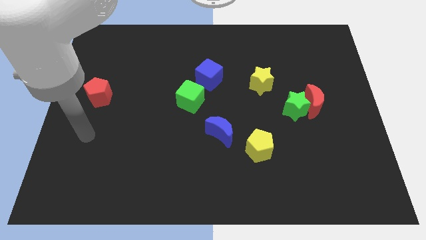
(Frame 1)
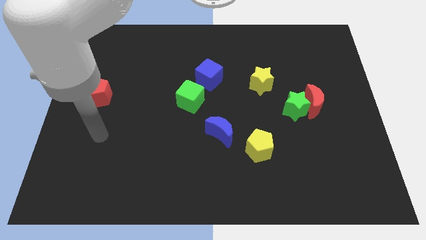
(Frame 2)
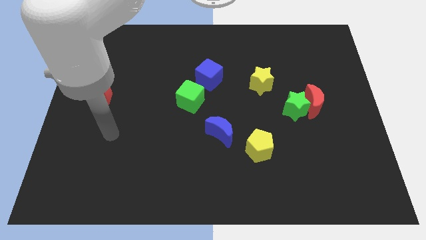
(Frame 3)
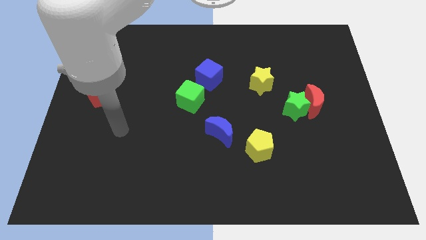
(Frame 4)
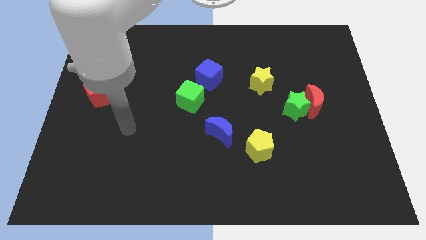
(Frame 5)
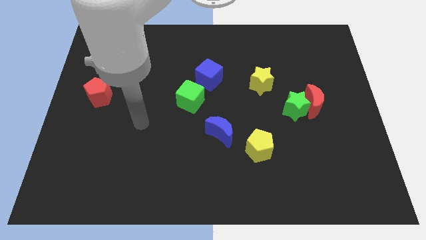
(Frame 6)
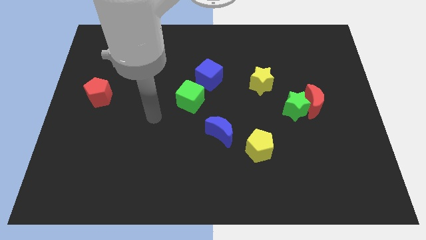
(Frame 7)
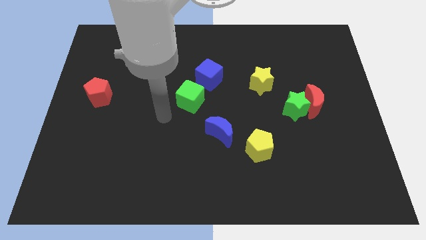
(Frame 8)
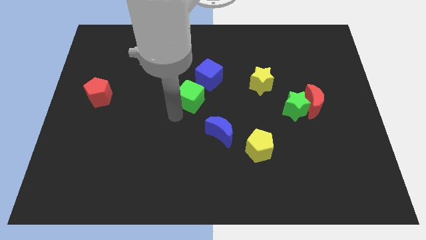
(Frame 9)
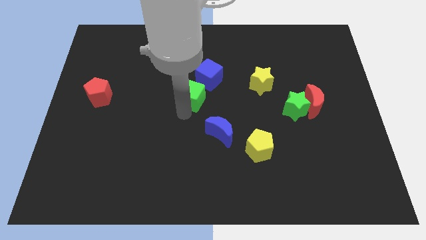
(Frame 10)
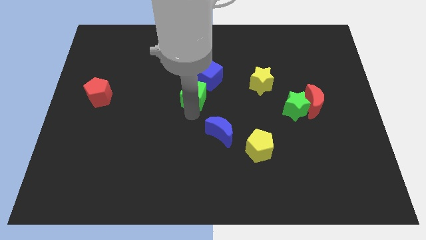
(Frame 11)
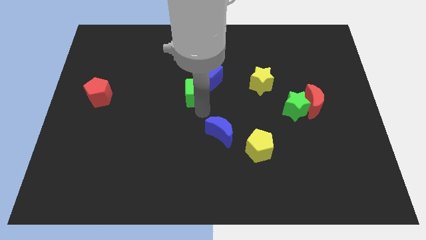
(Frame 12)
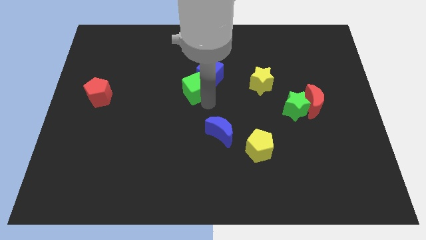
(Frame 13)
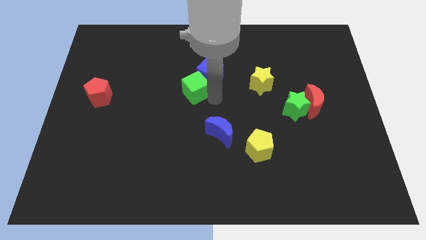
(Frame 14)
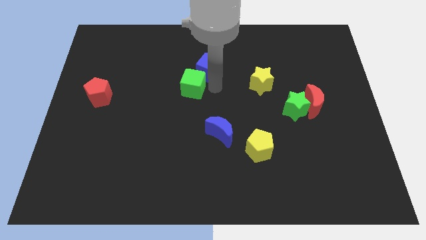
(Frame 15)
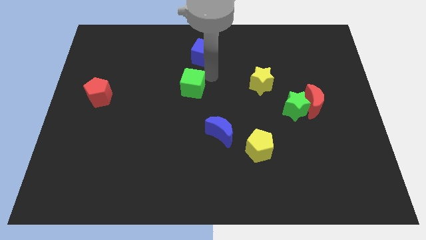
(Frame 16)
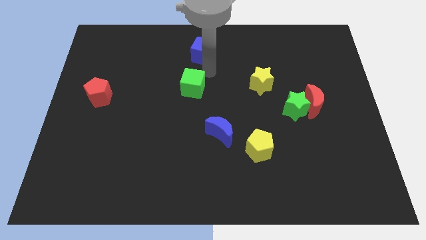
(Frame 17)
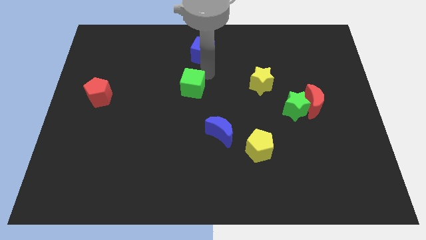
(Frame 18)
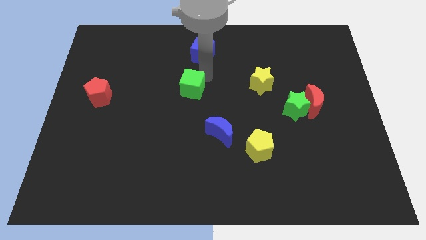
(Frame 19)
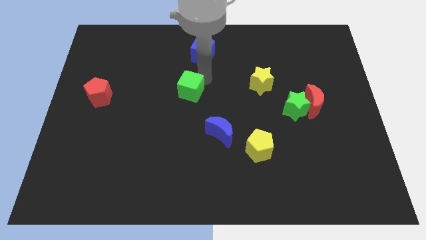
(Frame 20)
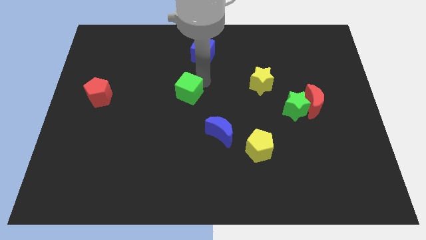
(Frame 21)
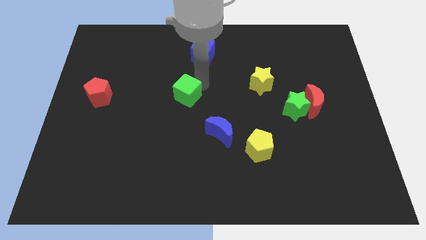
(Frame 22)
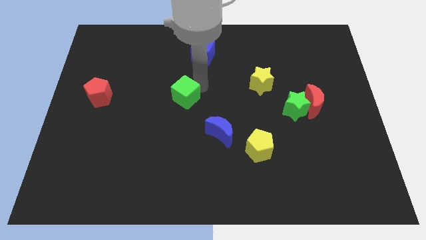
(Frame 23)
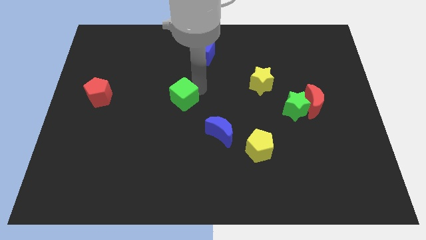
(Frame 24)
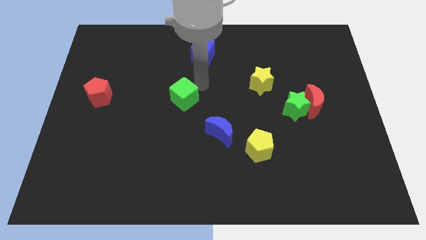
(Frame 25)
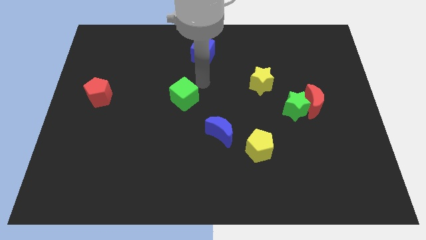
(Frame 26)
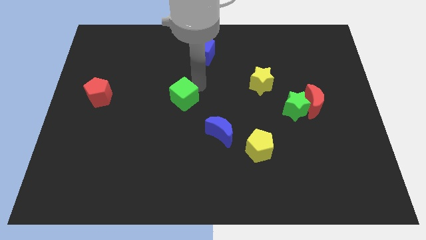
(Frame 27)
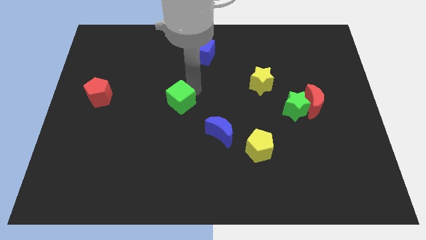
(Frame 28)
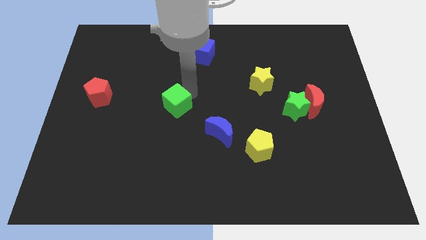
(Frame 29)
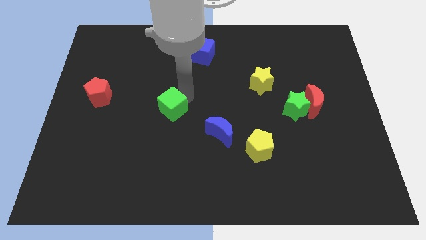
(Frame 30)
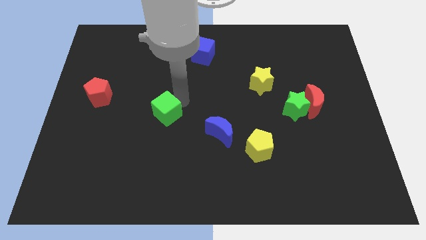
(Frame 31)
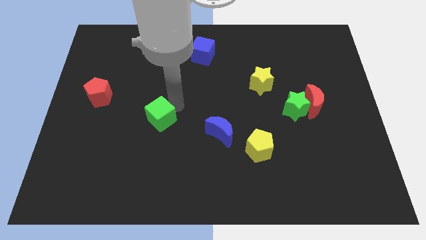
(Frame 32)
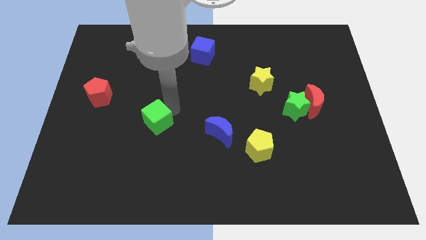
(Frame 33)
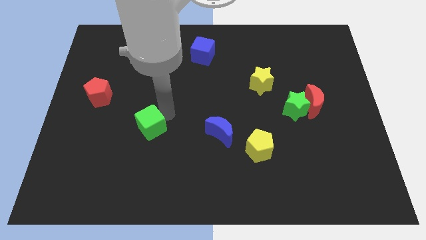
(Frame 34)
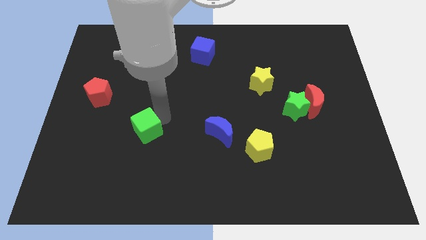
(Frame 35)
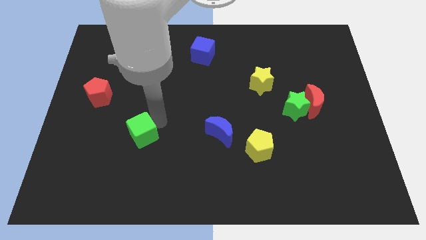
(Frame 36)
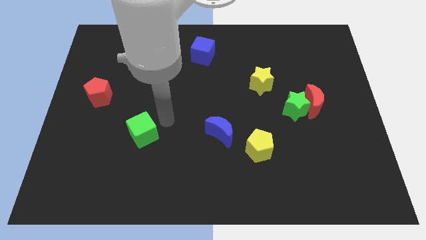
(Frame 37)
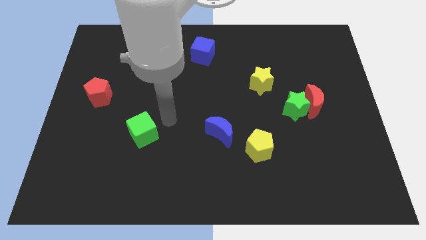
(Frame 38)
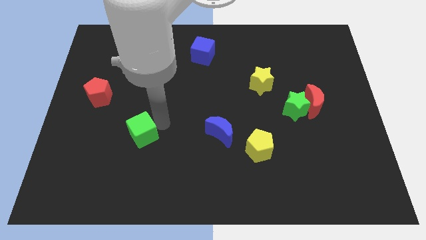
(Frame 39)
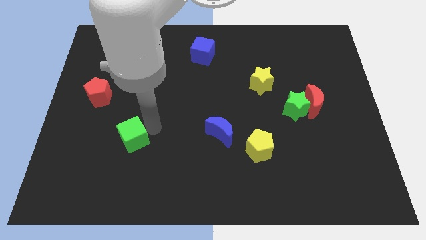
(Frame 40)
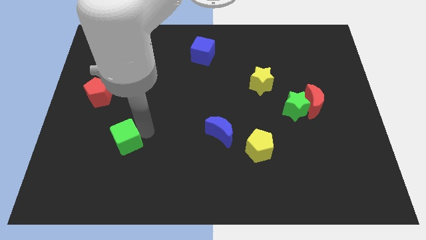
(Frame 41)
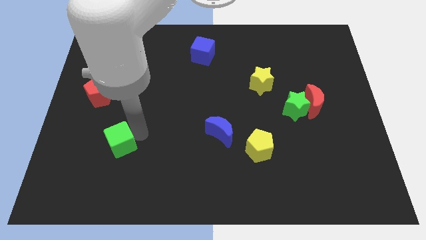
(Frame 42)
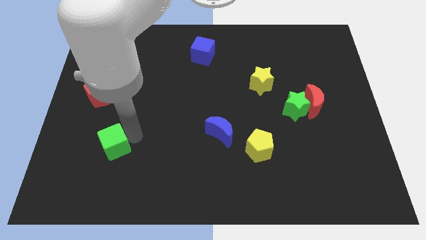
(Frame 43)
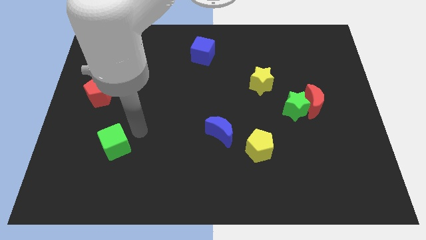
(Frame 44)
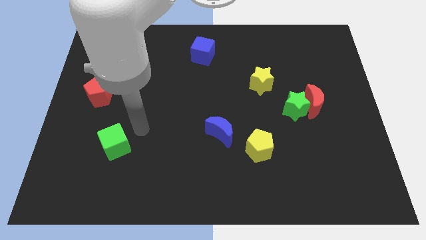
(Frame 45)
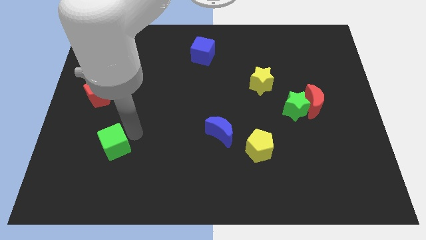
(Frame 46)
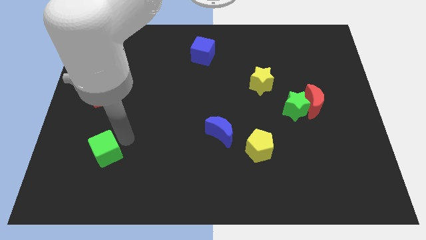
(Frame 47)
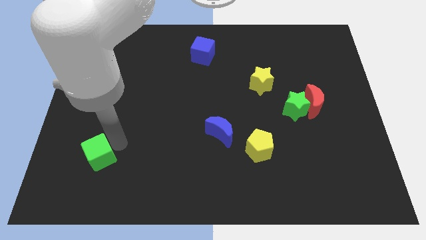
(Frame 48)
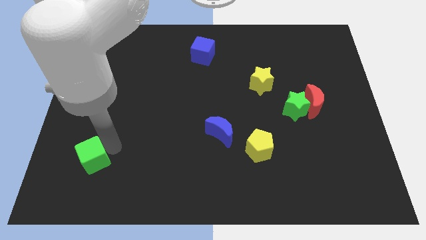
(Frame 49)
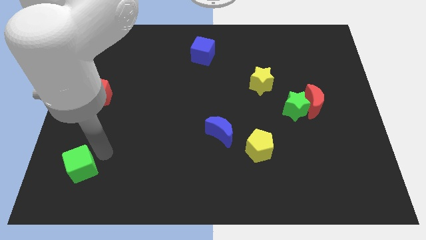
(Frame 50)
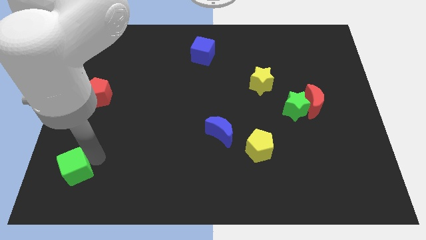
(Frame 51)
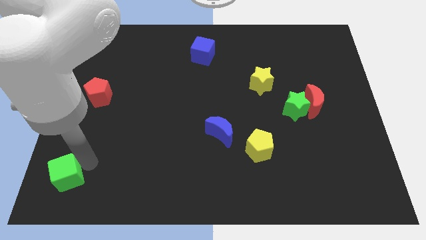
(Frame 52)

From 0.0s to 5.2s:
move the green cube to the bottom left corner

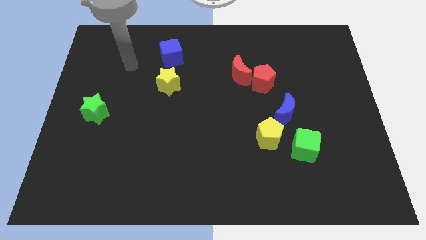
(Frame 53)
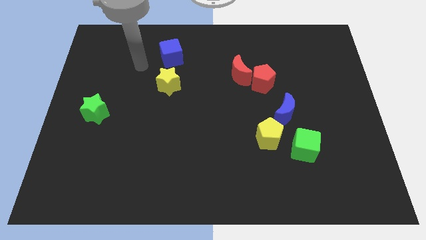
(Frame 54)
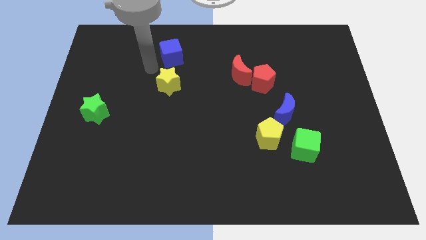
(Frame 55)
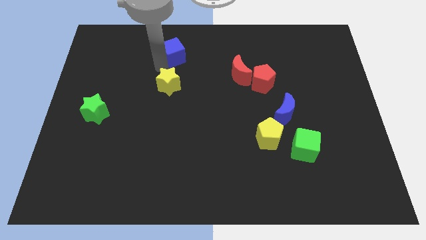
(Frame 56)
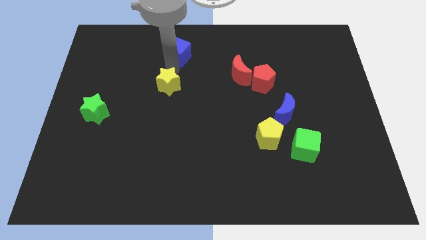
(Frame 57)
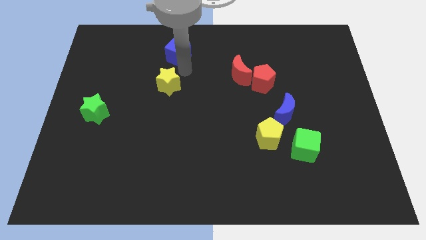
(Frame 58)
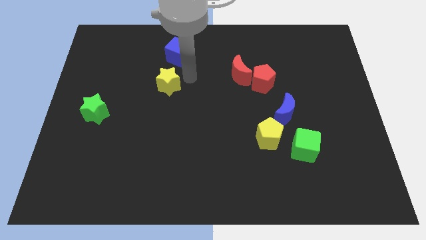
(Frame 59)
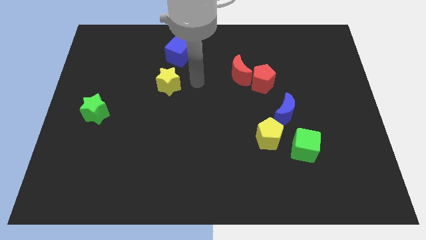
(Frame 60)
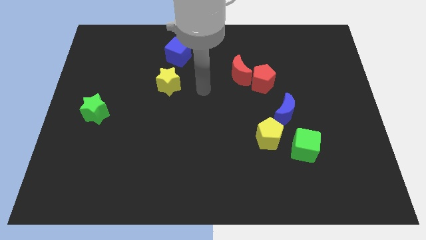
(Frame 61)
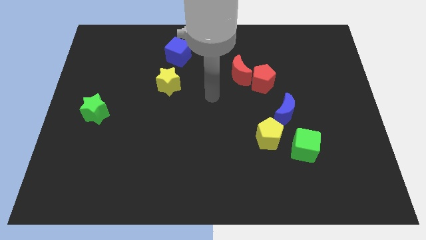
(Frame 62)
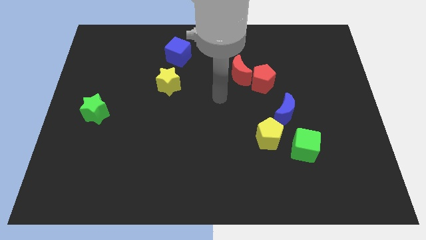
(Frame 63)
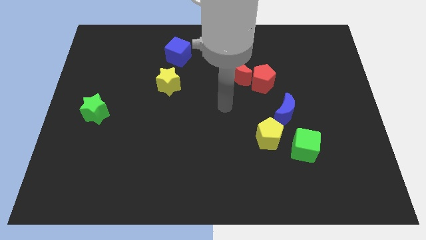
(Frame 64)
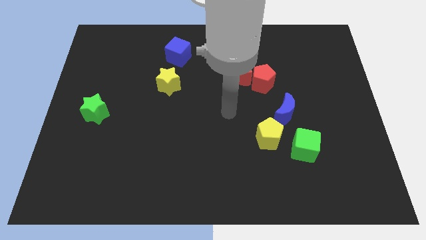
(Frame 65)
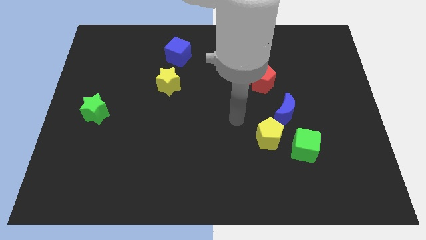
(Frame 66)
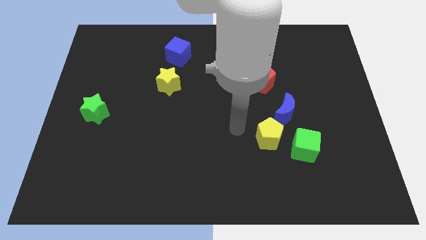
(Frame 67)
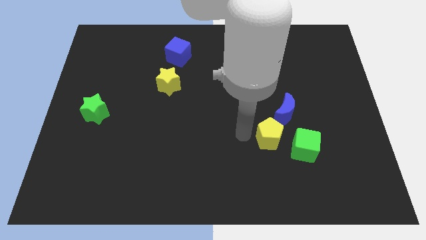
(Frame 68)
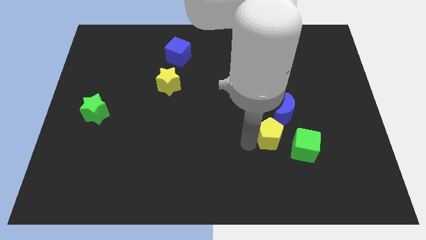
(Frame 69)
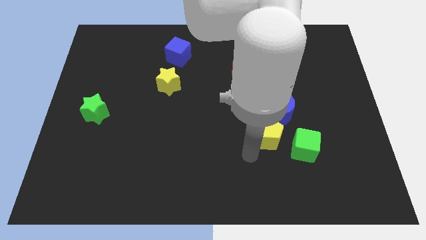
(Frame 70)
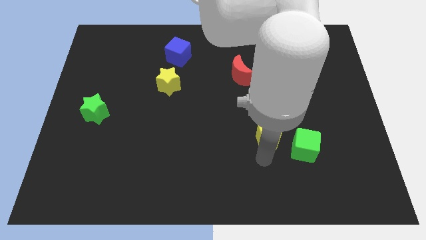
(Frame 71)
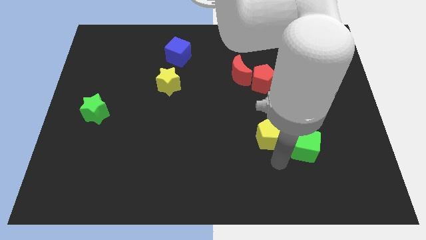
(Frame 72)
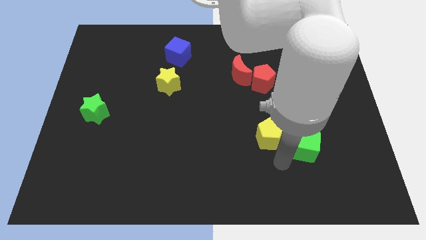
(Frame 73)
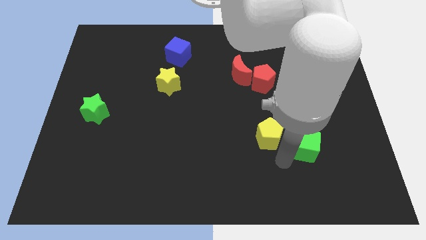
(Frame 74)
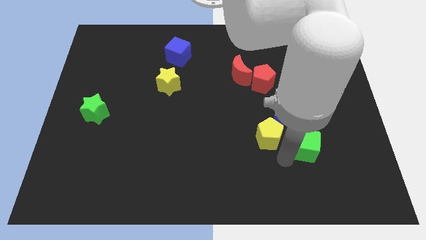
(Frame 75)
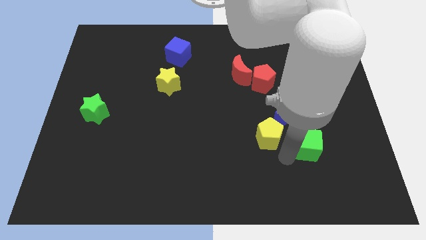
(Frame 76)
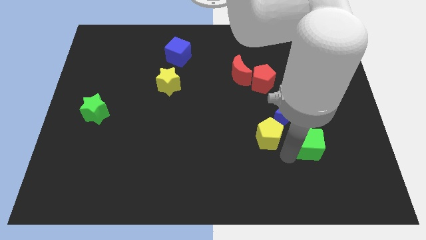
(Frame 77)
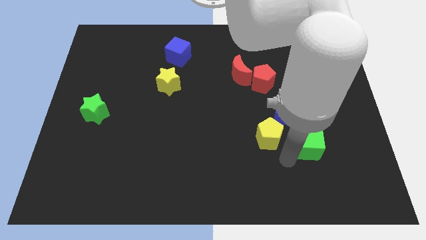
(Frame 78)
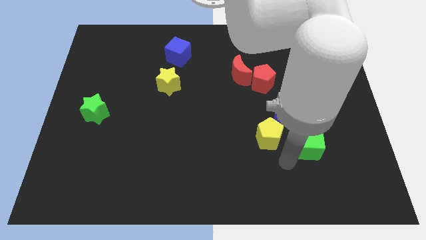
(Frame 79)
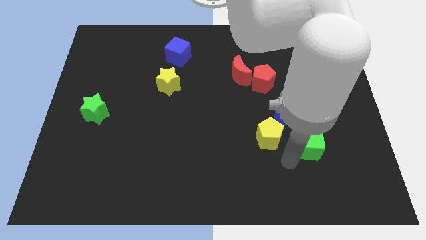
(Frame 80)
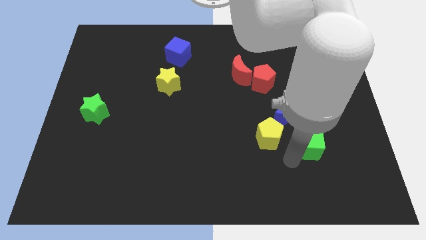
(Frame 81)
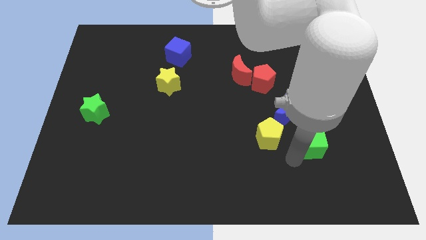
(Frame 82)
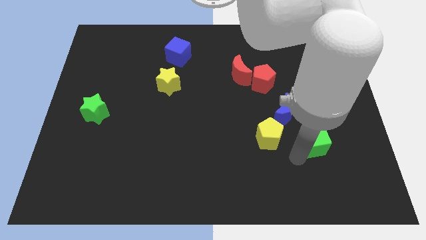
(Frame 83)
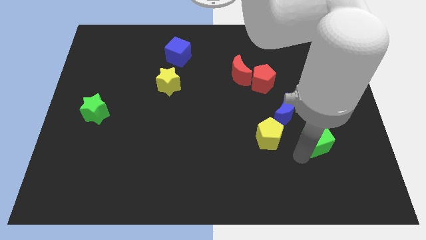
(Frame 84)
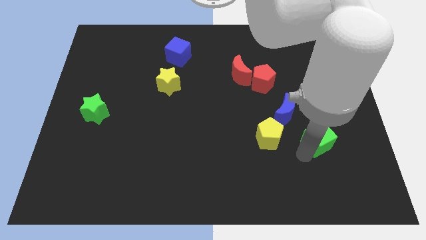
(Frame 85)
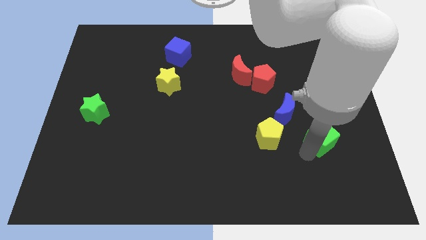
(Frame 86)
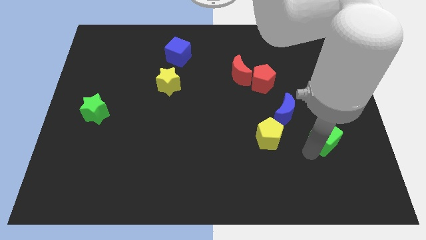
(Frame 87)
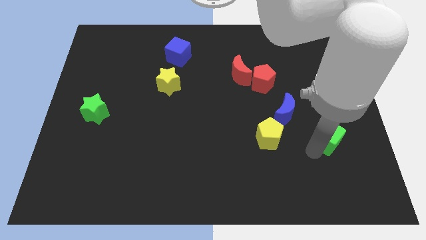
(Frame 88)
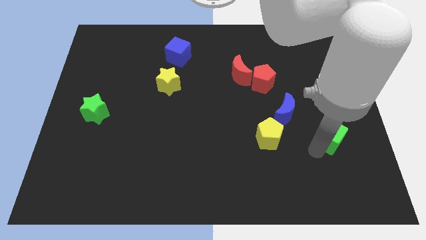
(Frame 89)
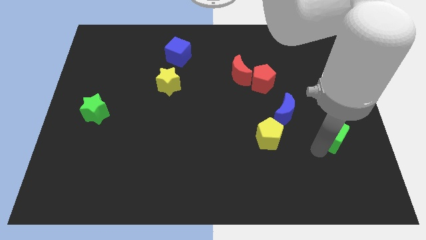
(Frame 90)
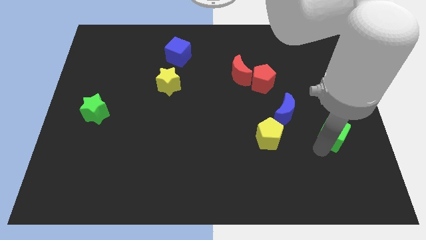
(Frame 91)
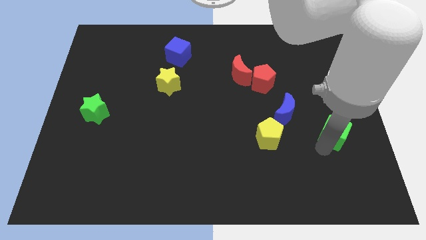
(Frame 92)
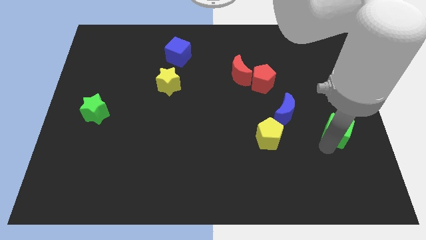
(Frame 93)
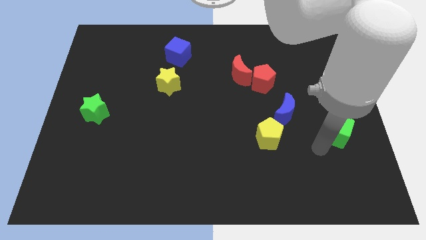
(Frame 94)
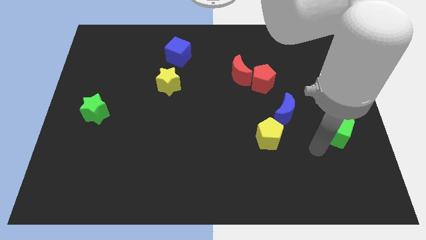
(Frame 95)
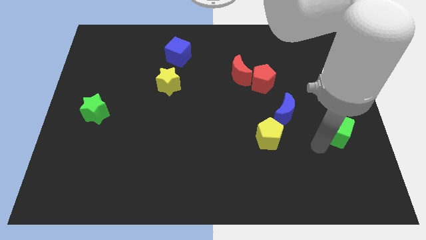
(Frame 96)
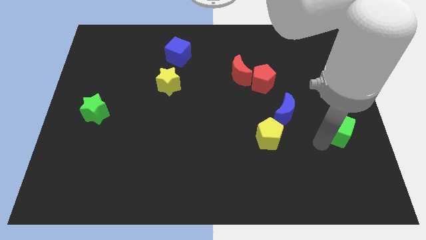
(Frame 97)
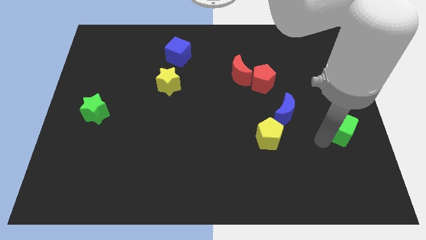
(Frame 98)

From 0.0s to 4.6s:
move the green cube to the right side
